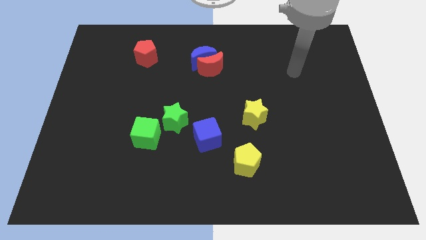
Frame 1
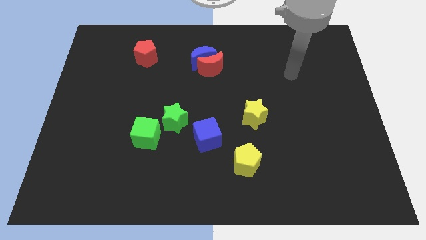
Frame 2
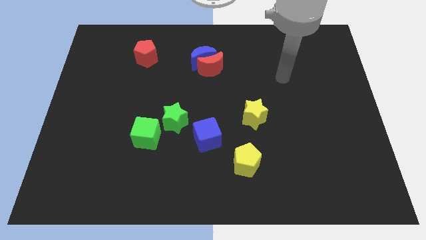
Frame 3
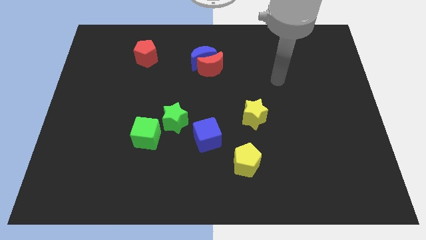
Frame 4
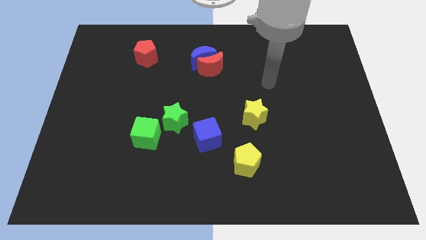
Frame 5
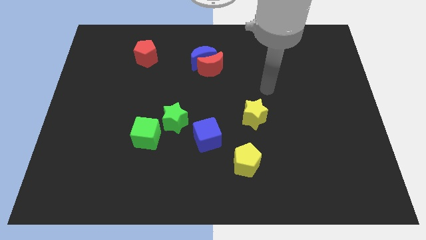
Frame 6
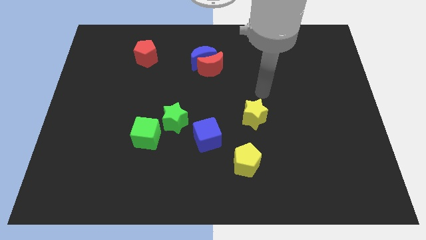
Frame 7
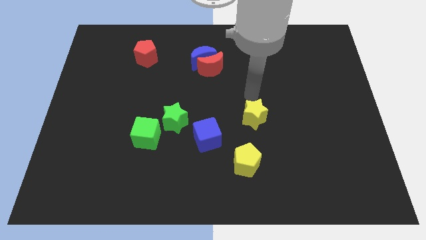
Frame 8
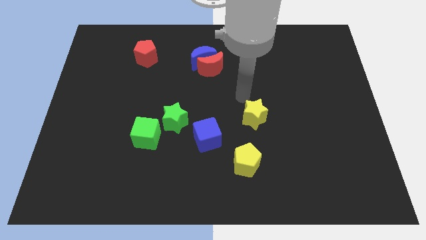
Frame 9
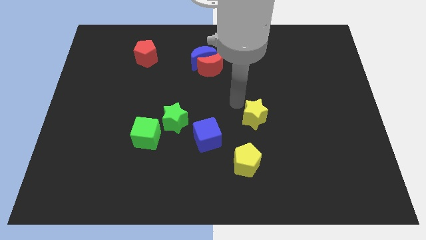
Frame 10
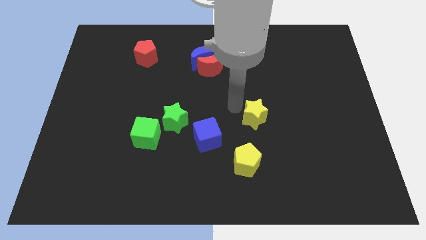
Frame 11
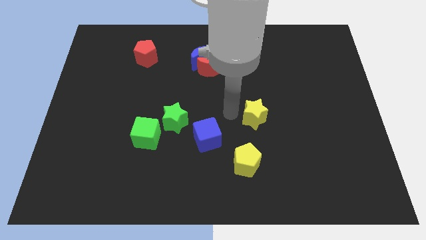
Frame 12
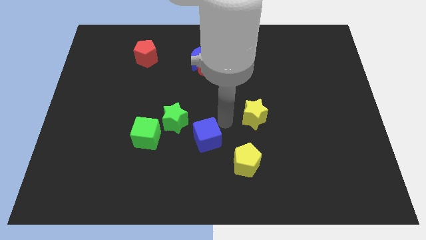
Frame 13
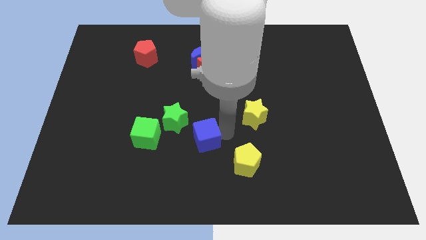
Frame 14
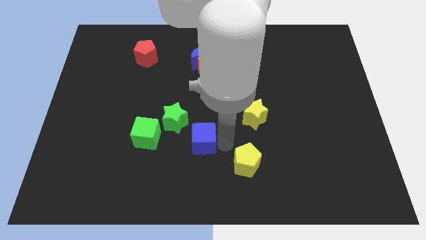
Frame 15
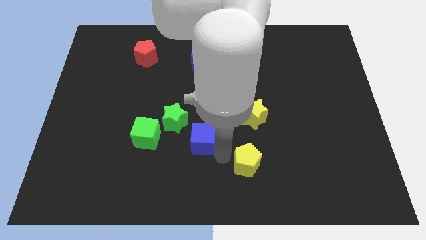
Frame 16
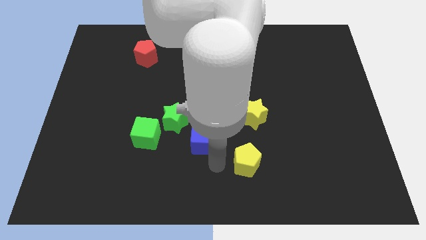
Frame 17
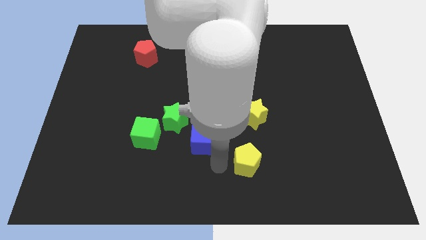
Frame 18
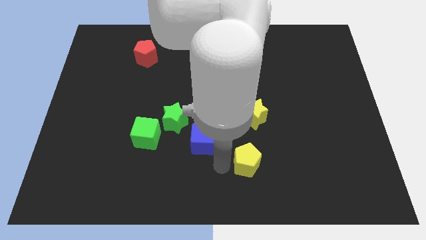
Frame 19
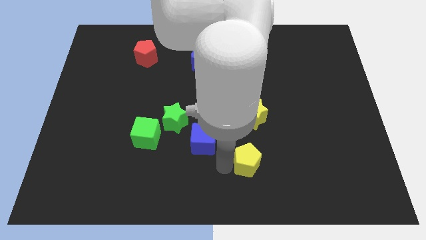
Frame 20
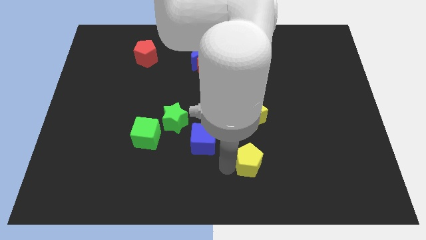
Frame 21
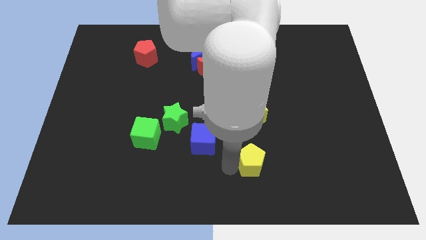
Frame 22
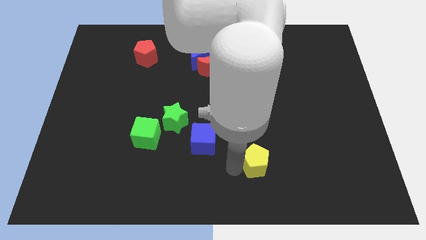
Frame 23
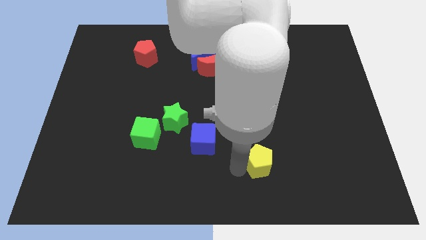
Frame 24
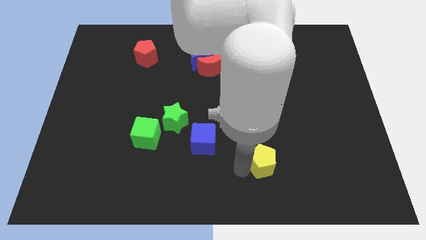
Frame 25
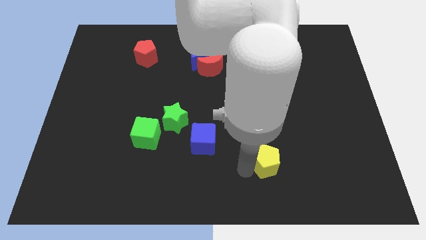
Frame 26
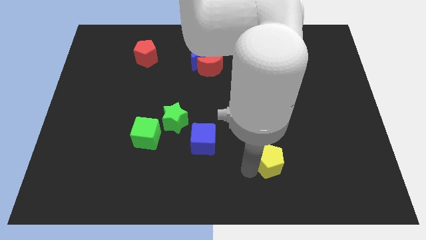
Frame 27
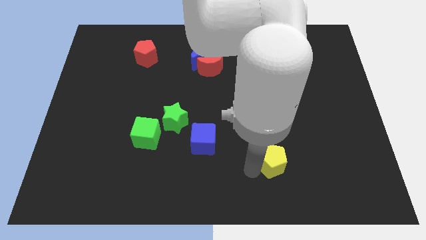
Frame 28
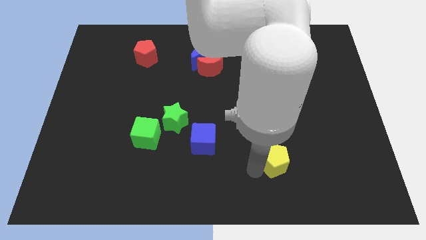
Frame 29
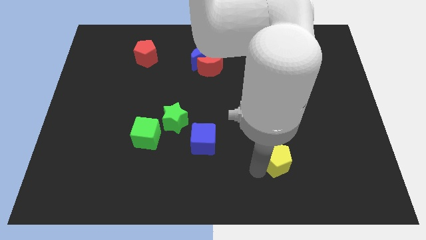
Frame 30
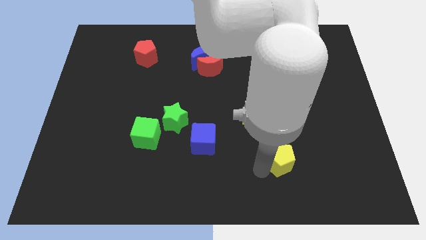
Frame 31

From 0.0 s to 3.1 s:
push the yellow pentagon somewhat to the right

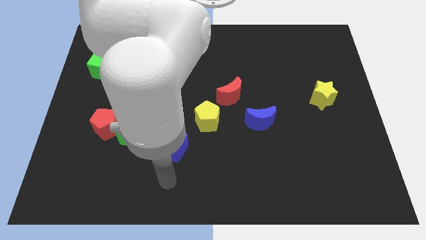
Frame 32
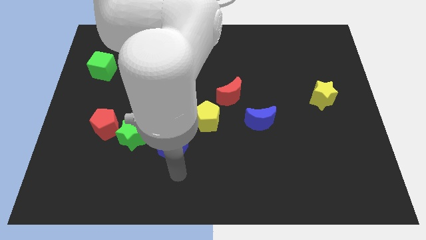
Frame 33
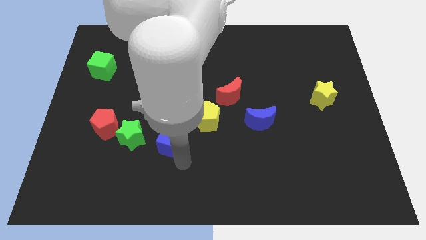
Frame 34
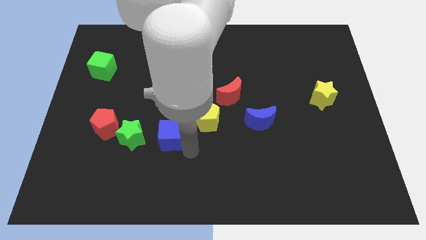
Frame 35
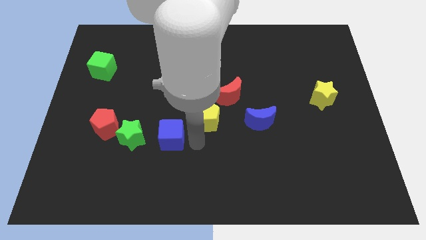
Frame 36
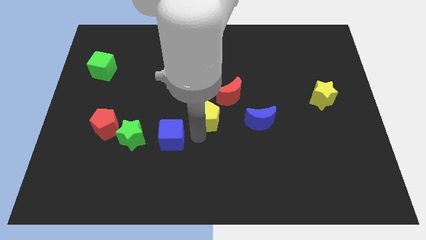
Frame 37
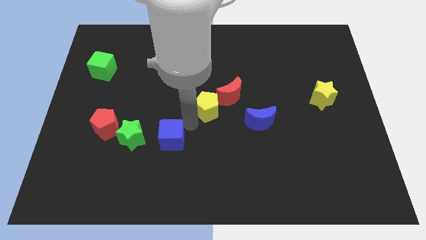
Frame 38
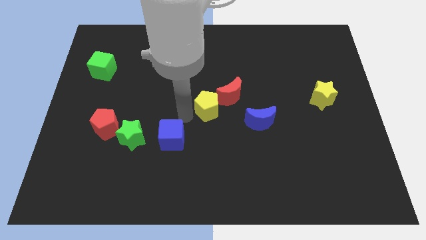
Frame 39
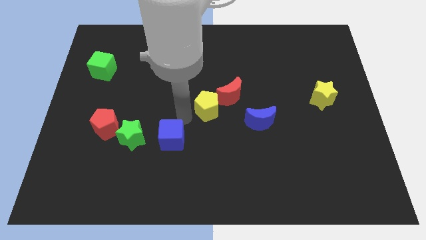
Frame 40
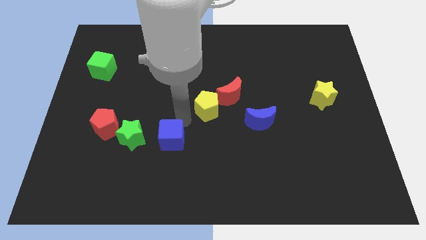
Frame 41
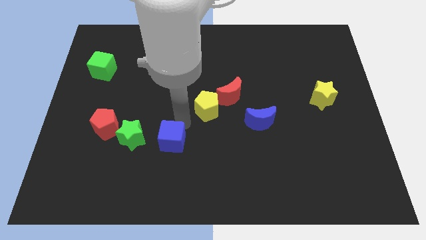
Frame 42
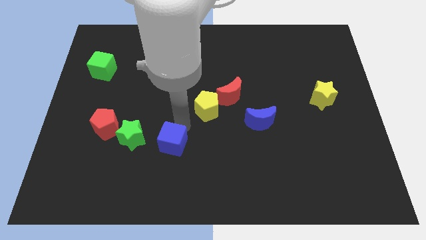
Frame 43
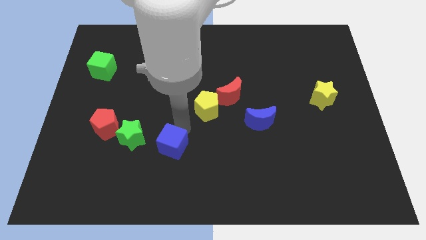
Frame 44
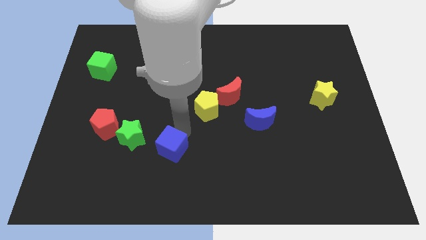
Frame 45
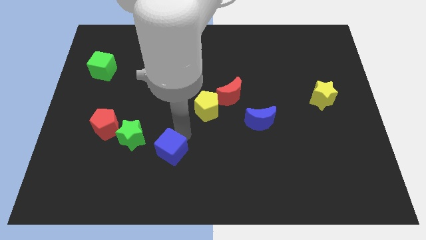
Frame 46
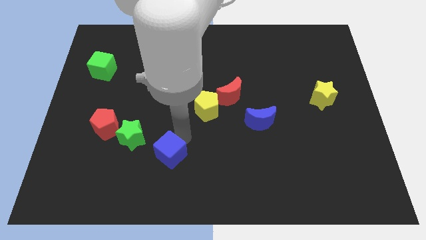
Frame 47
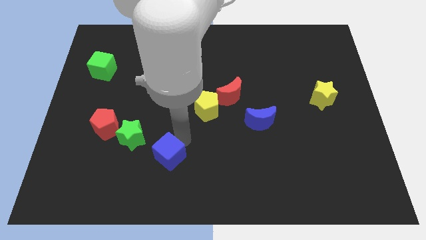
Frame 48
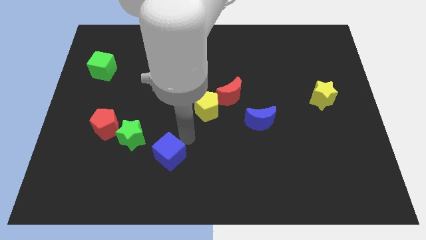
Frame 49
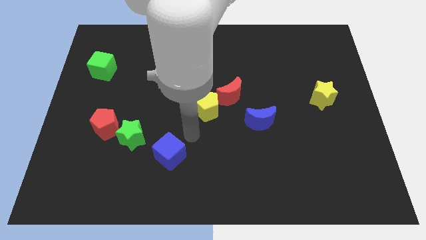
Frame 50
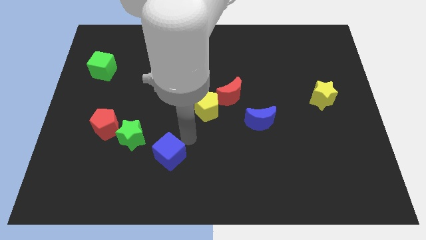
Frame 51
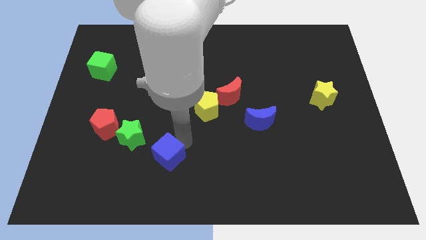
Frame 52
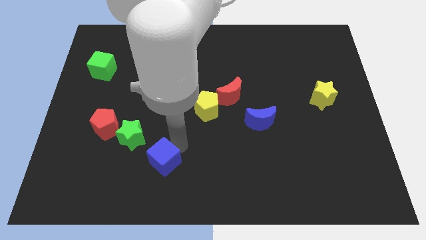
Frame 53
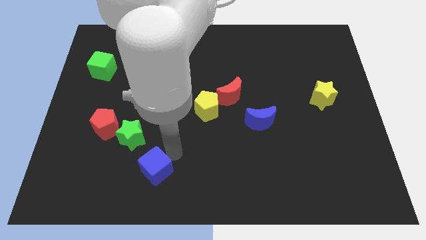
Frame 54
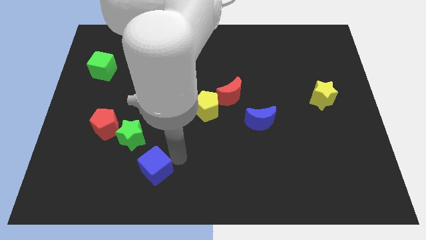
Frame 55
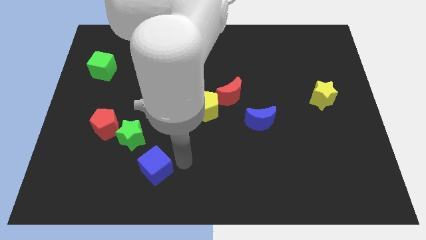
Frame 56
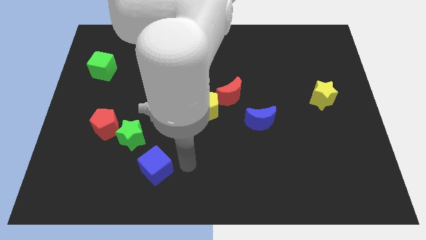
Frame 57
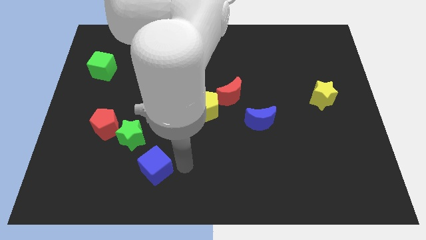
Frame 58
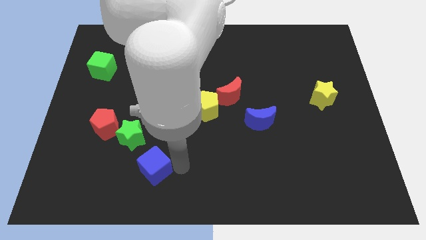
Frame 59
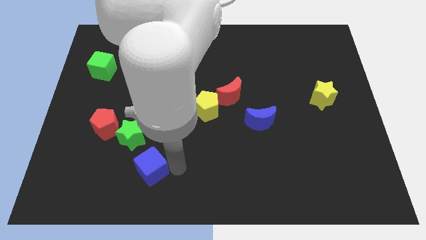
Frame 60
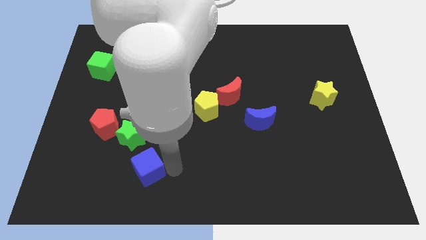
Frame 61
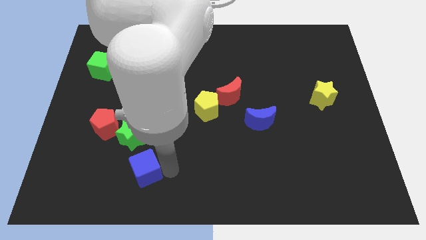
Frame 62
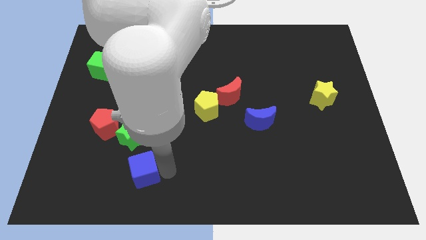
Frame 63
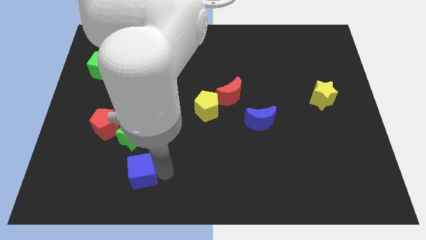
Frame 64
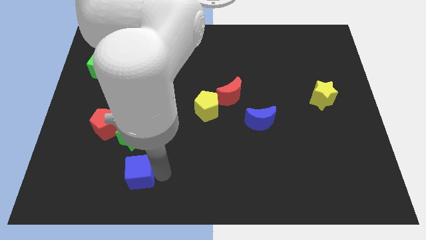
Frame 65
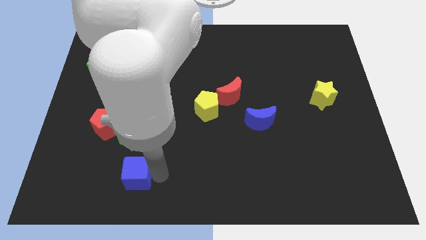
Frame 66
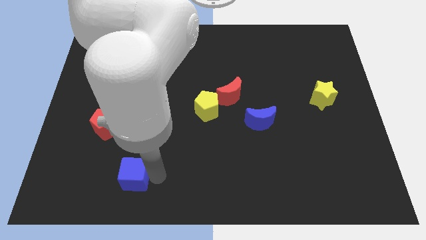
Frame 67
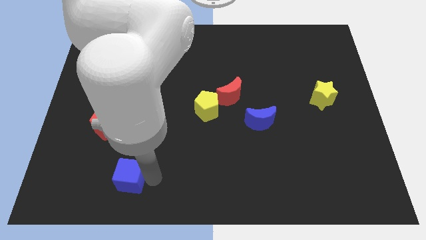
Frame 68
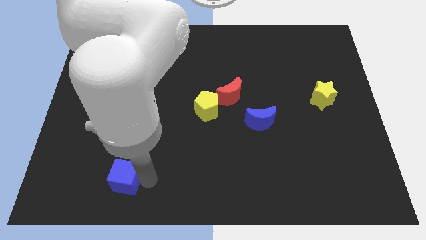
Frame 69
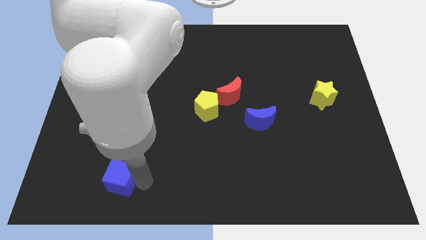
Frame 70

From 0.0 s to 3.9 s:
slide the blue cube left slightly

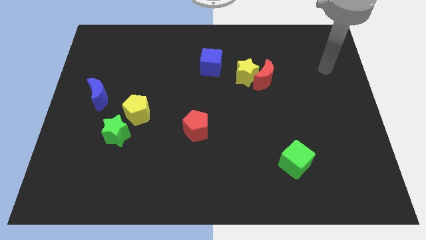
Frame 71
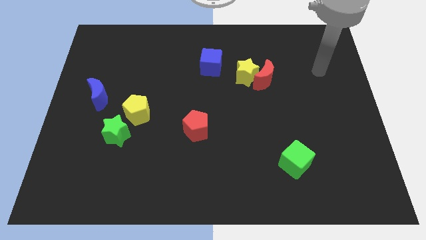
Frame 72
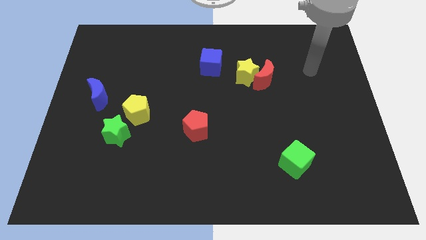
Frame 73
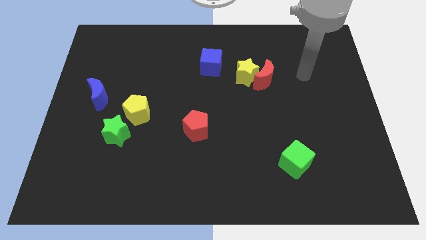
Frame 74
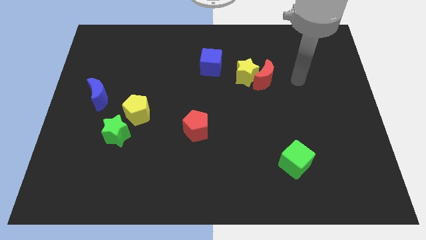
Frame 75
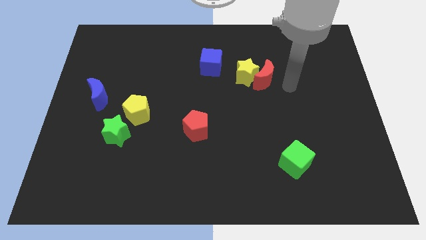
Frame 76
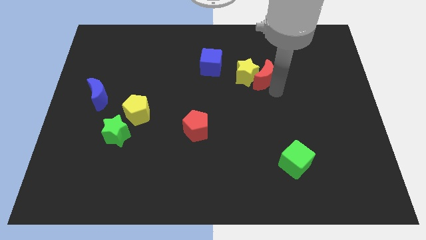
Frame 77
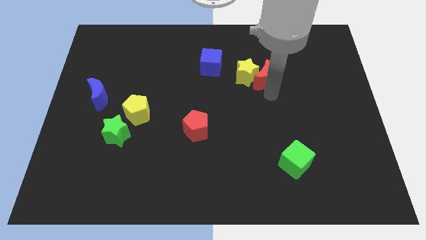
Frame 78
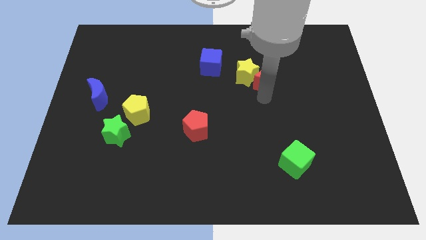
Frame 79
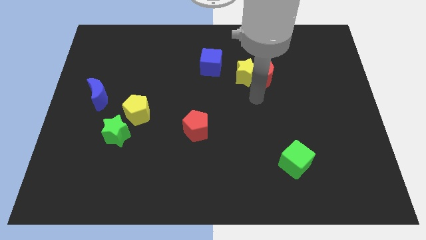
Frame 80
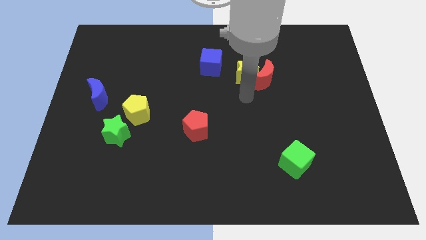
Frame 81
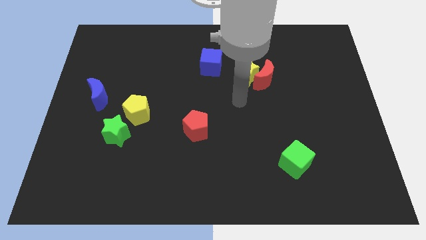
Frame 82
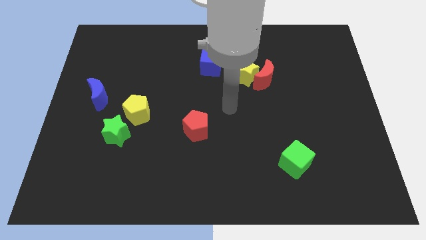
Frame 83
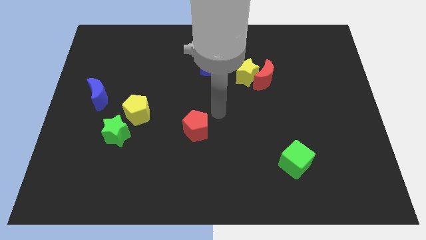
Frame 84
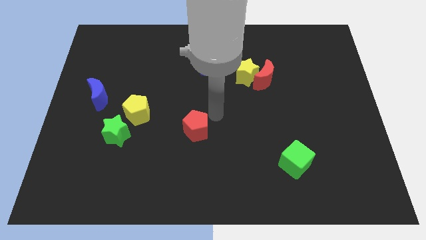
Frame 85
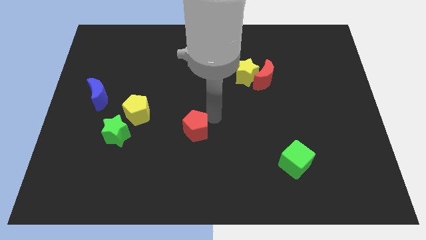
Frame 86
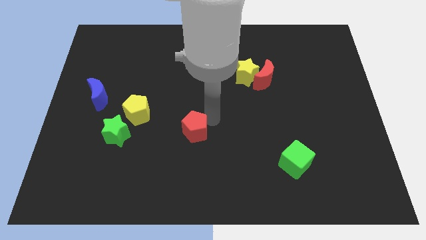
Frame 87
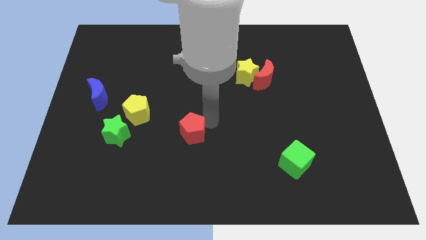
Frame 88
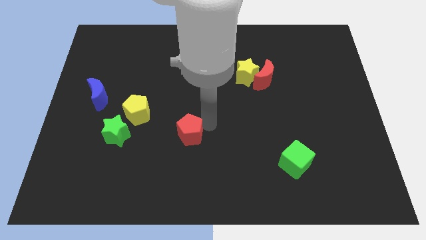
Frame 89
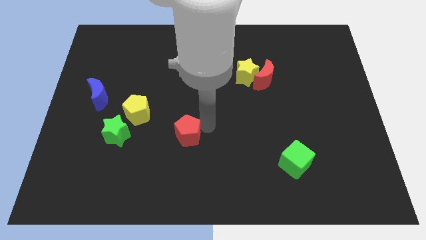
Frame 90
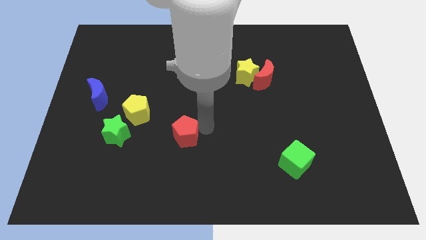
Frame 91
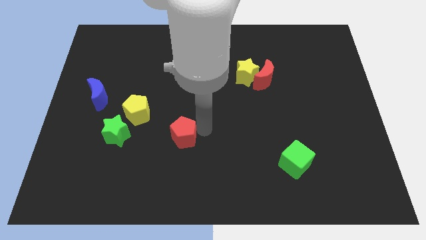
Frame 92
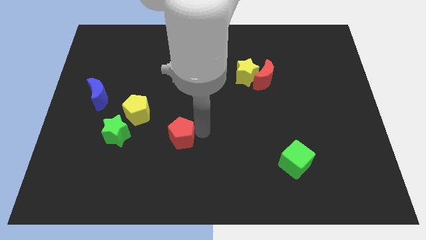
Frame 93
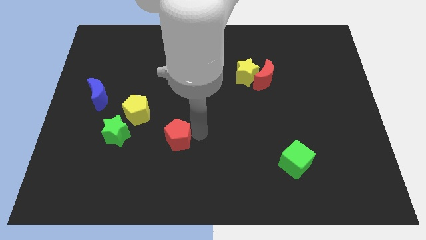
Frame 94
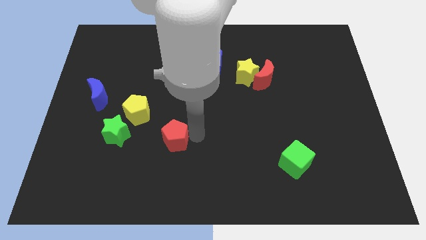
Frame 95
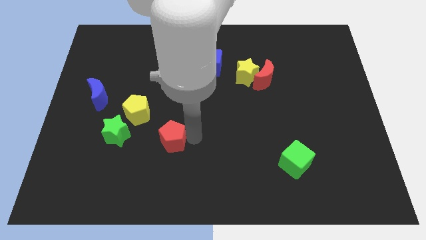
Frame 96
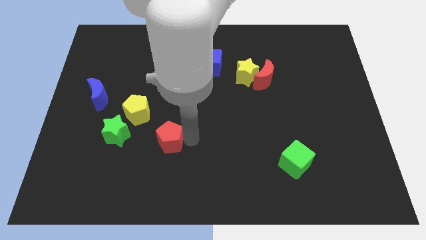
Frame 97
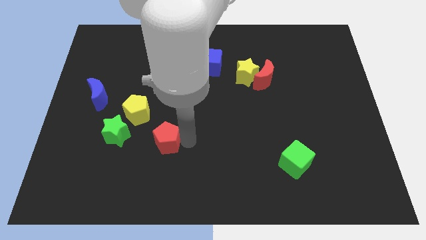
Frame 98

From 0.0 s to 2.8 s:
slide the red pentagon a little bit diagonally down and left
